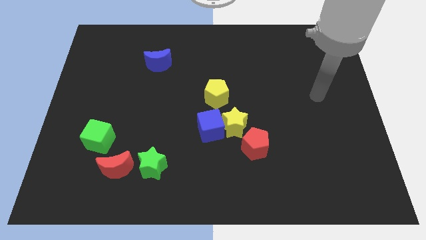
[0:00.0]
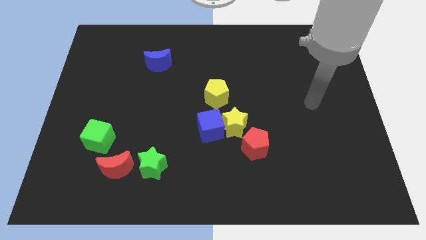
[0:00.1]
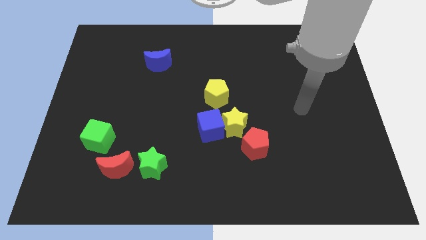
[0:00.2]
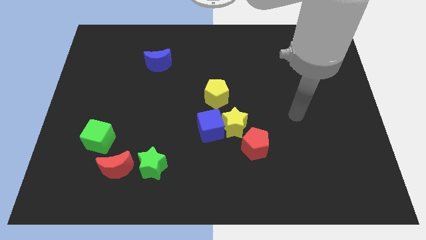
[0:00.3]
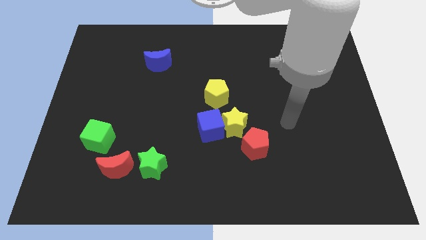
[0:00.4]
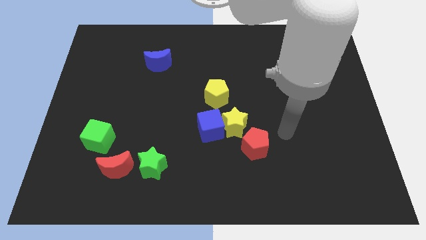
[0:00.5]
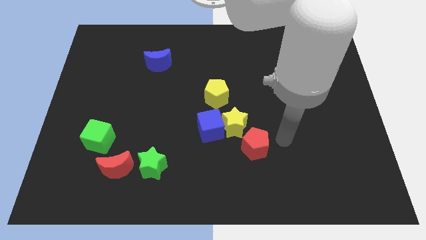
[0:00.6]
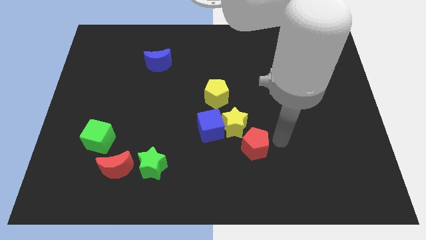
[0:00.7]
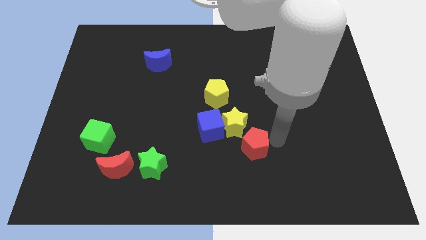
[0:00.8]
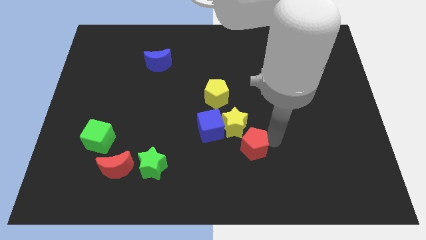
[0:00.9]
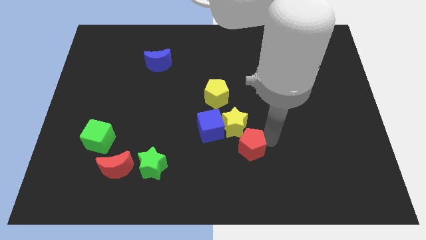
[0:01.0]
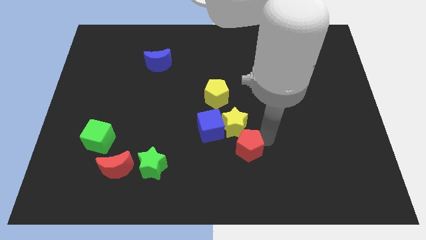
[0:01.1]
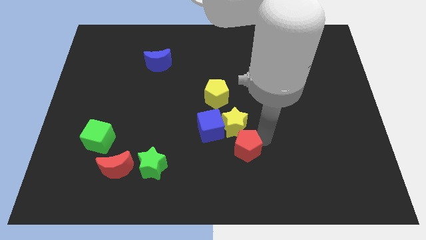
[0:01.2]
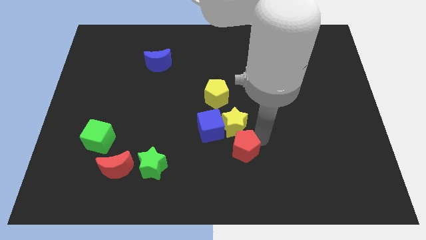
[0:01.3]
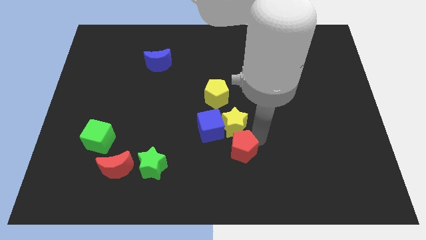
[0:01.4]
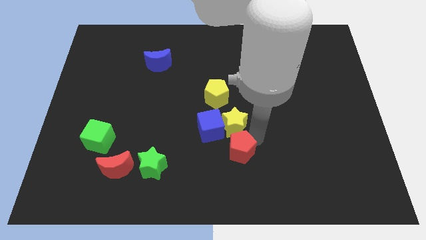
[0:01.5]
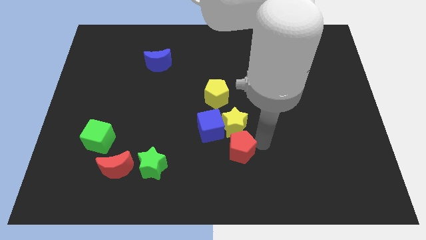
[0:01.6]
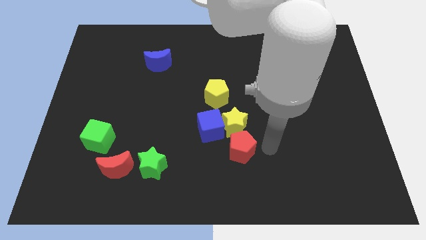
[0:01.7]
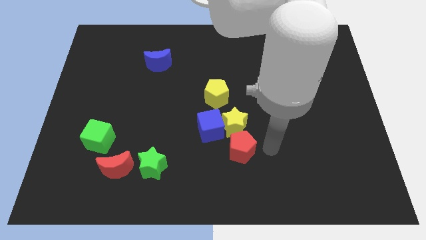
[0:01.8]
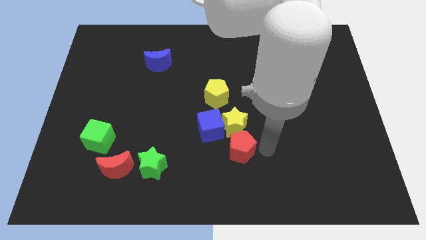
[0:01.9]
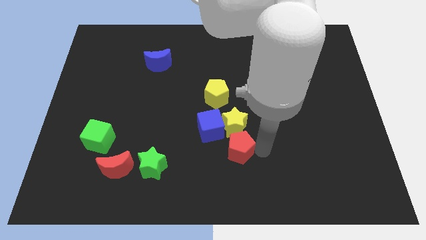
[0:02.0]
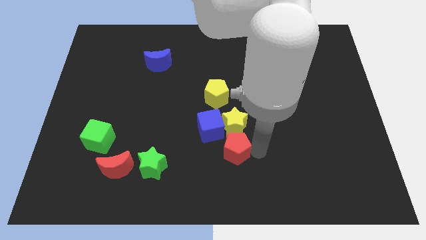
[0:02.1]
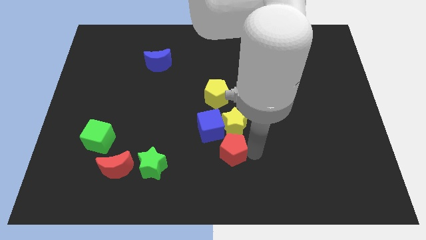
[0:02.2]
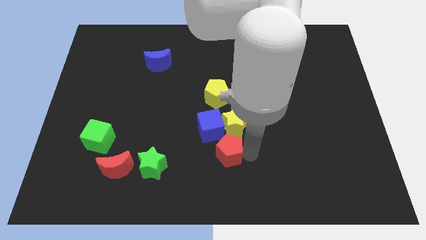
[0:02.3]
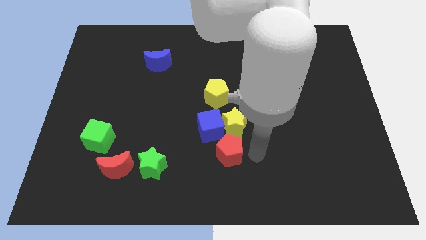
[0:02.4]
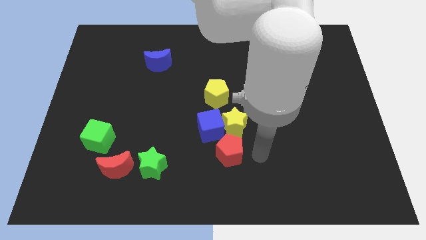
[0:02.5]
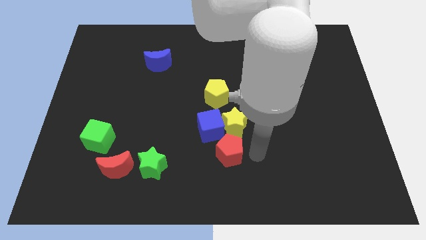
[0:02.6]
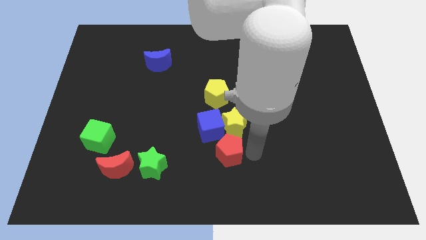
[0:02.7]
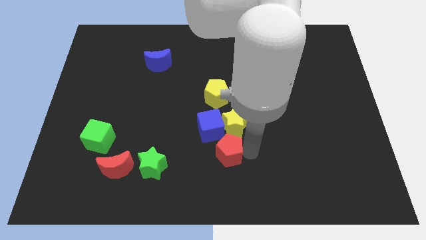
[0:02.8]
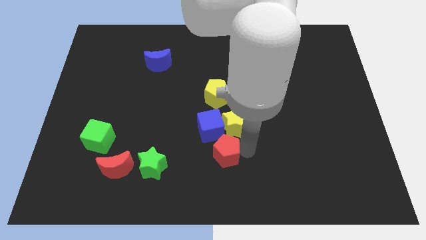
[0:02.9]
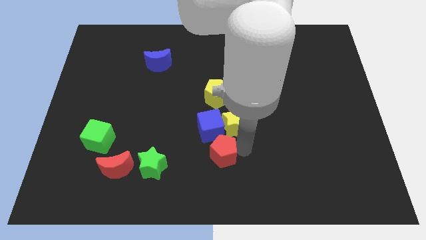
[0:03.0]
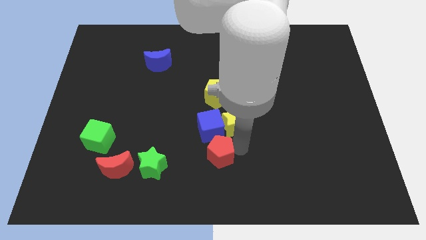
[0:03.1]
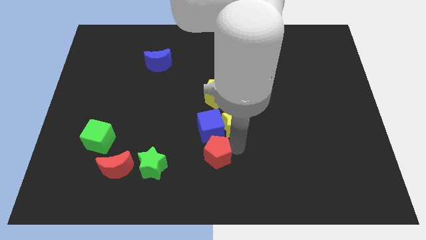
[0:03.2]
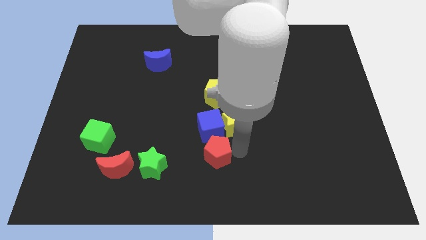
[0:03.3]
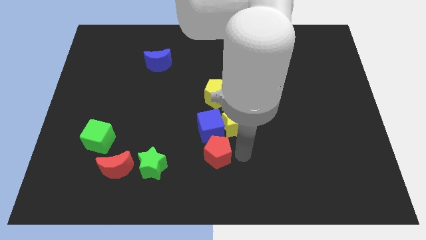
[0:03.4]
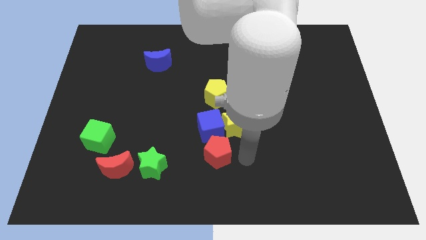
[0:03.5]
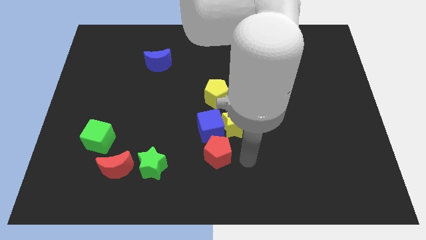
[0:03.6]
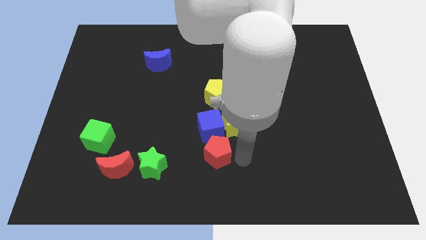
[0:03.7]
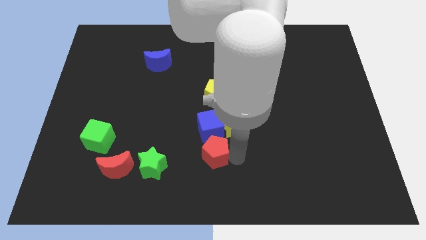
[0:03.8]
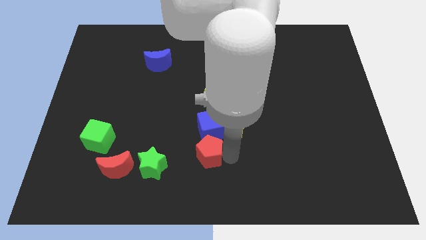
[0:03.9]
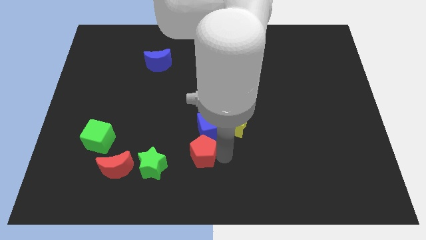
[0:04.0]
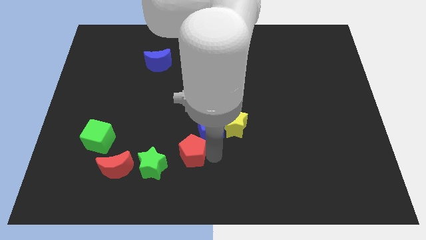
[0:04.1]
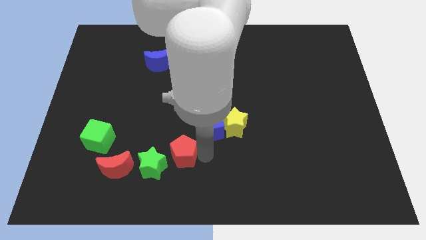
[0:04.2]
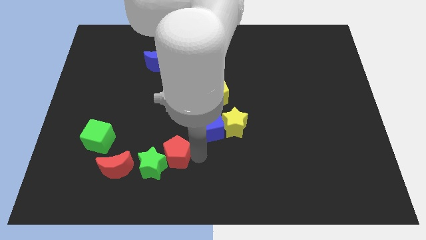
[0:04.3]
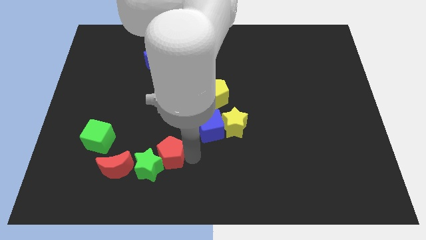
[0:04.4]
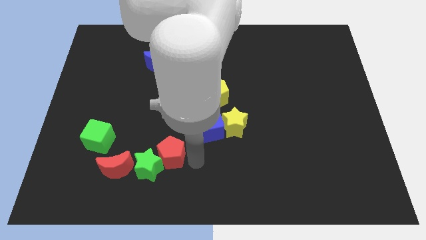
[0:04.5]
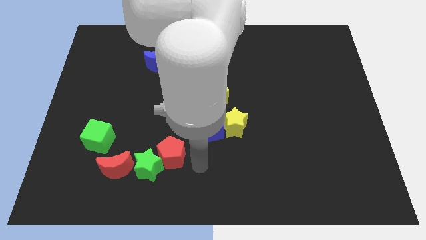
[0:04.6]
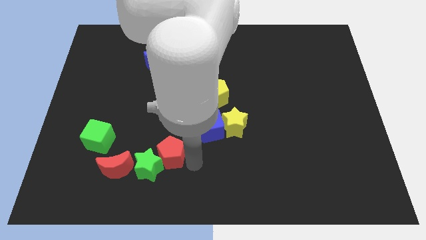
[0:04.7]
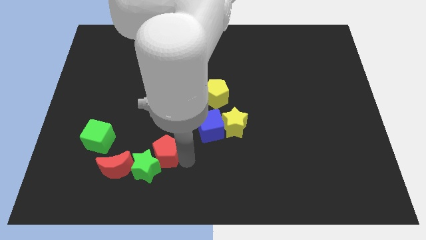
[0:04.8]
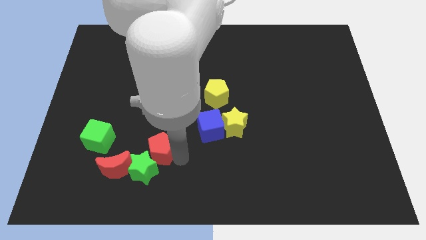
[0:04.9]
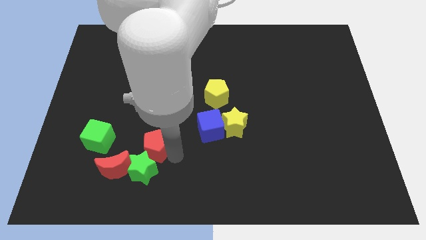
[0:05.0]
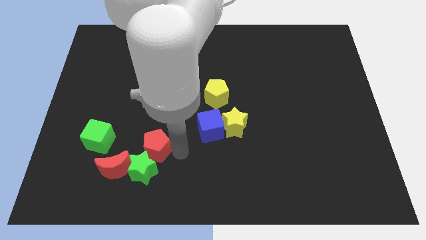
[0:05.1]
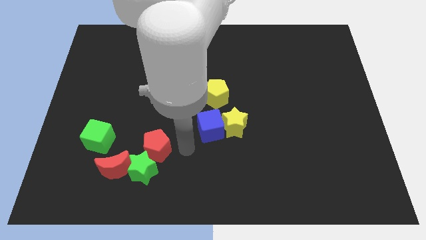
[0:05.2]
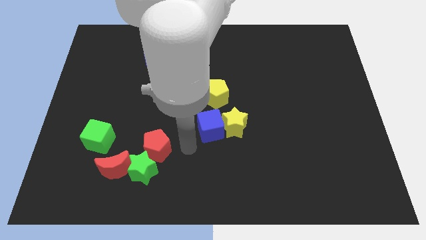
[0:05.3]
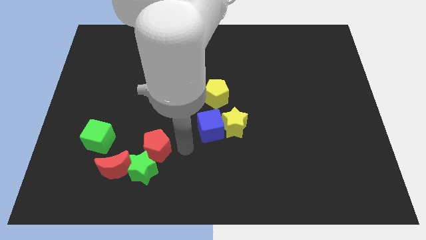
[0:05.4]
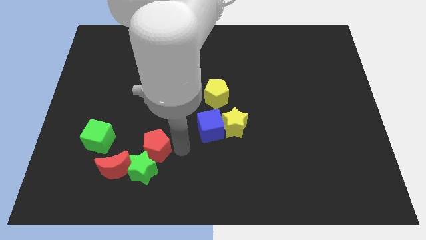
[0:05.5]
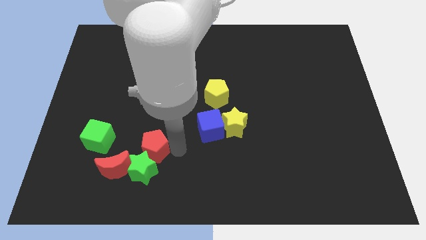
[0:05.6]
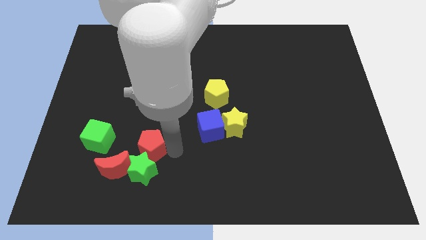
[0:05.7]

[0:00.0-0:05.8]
slide the red pentagon to the top left of the green star

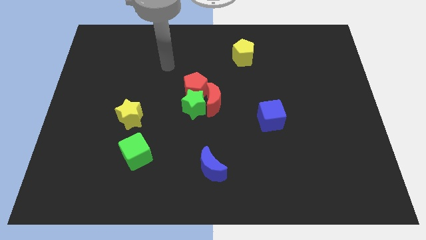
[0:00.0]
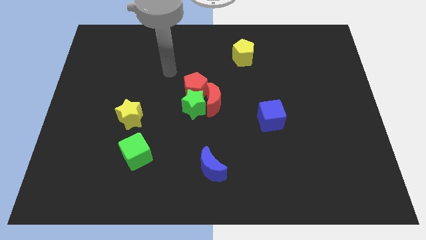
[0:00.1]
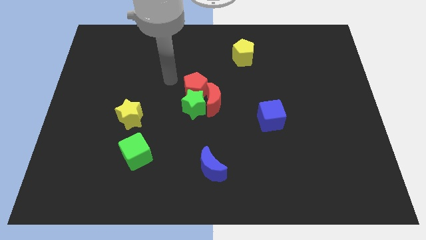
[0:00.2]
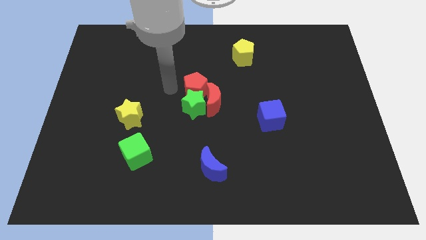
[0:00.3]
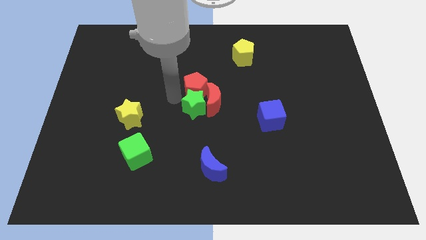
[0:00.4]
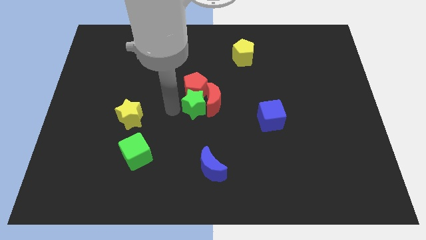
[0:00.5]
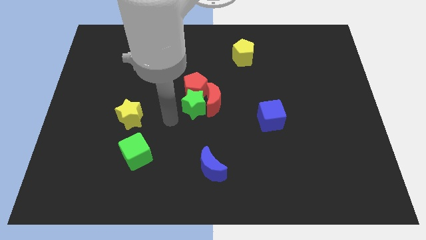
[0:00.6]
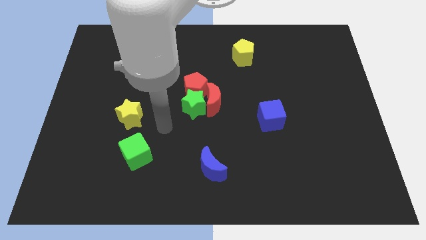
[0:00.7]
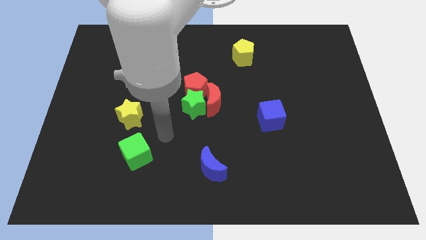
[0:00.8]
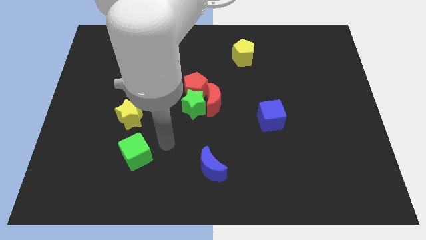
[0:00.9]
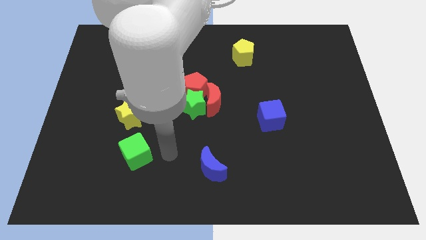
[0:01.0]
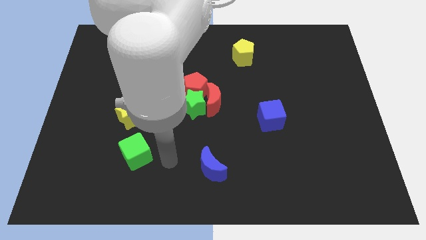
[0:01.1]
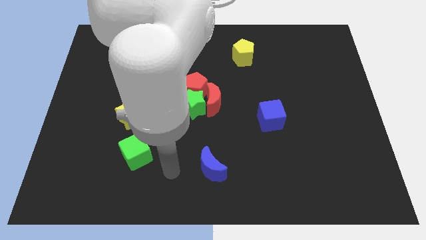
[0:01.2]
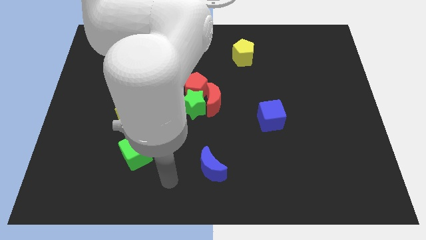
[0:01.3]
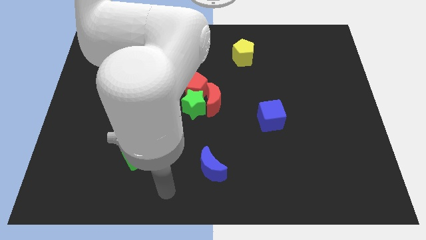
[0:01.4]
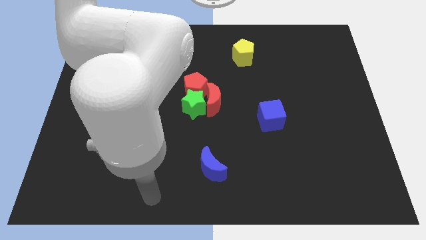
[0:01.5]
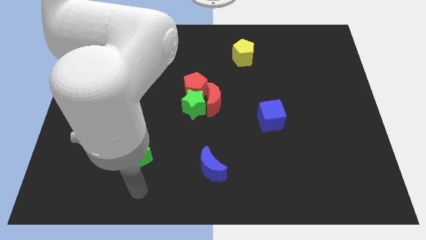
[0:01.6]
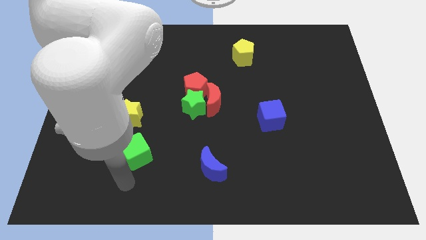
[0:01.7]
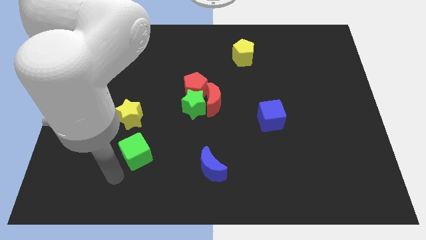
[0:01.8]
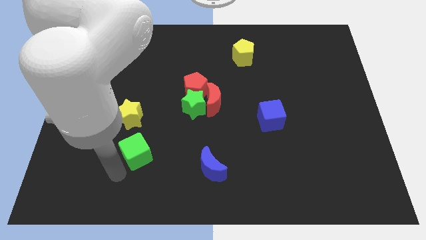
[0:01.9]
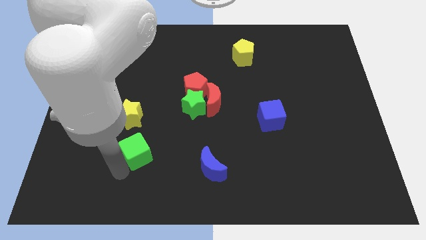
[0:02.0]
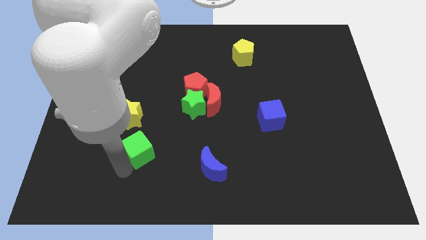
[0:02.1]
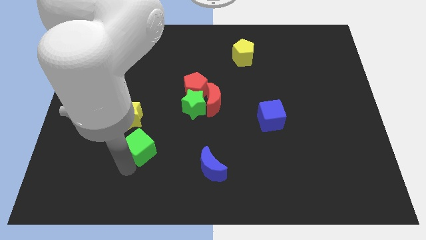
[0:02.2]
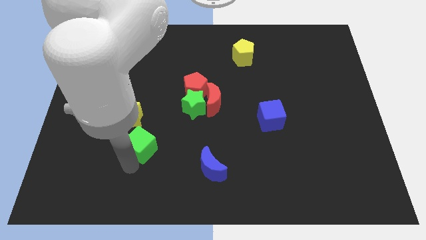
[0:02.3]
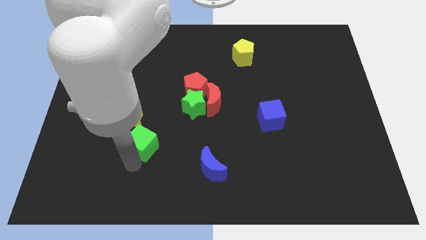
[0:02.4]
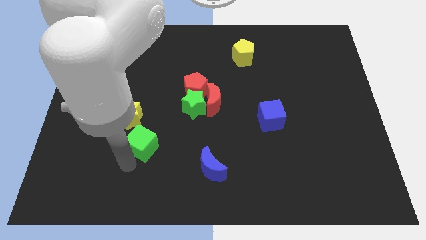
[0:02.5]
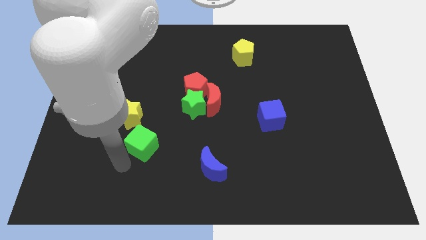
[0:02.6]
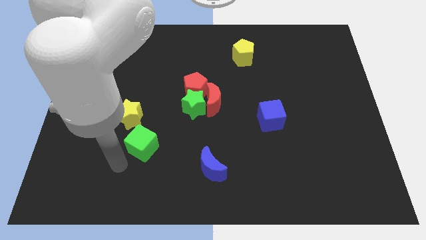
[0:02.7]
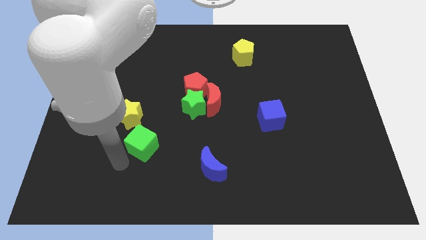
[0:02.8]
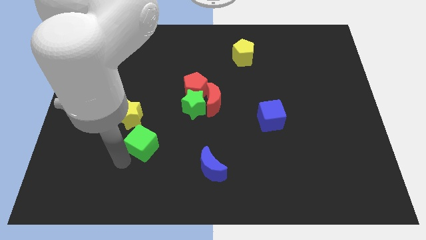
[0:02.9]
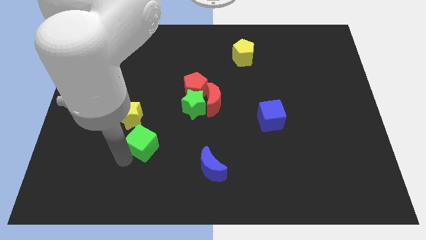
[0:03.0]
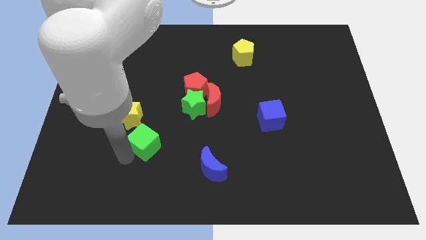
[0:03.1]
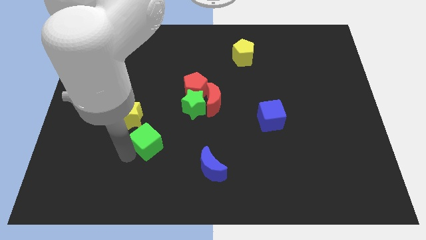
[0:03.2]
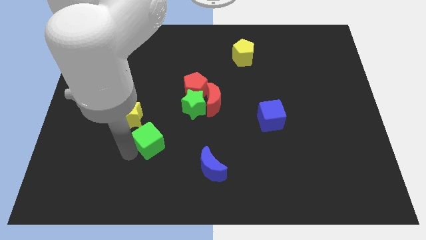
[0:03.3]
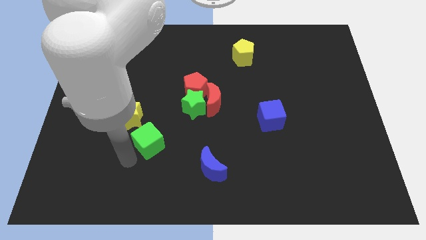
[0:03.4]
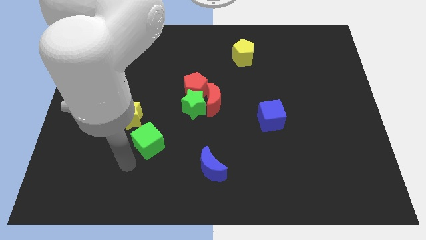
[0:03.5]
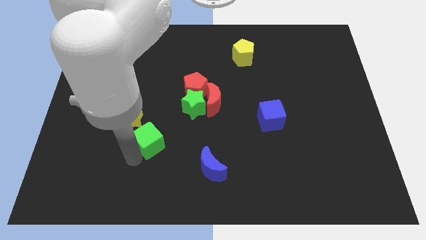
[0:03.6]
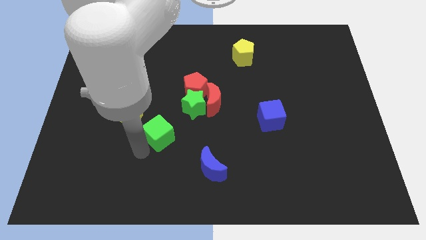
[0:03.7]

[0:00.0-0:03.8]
move the green cube right of the yellow star
